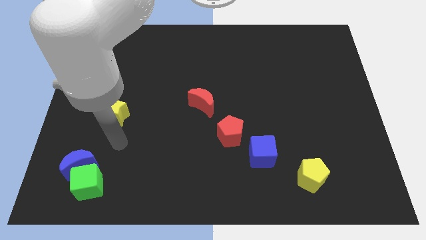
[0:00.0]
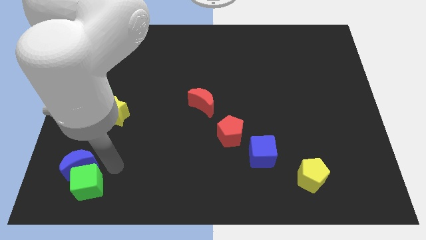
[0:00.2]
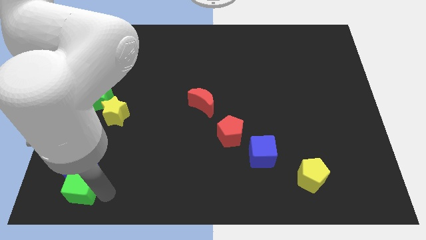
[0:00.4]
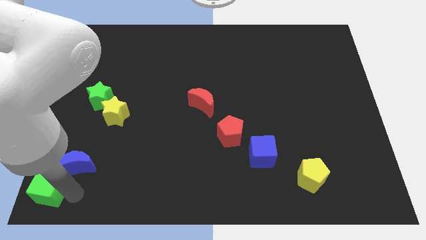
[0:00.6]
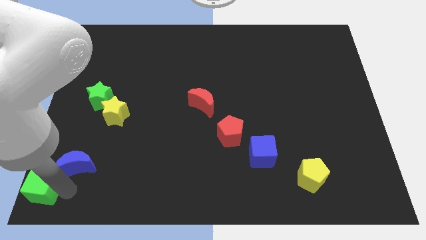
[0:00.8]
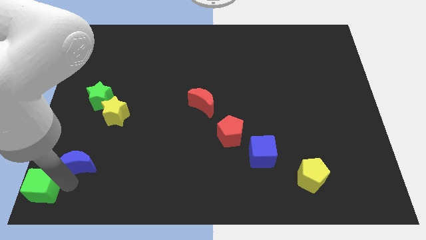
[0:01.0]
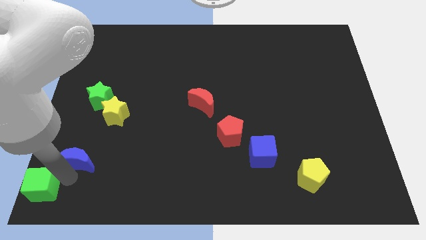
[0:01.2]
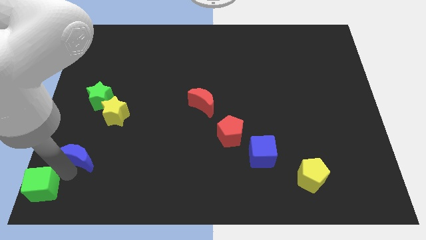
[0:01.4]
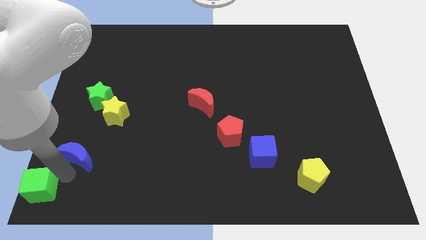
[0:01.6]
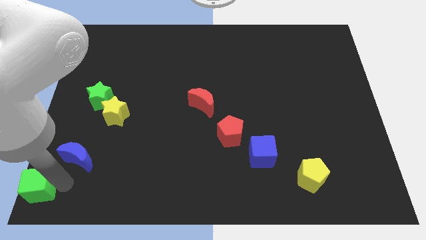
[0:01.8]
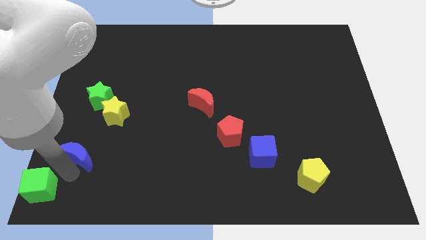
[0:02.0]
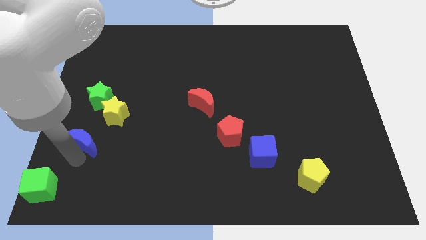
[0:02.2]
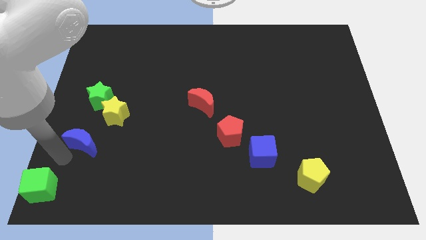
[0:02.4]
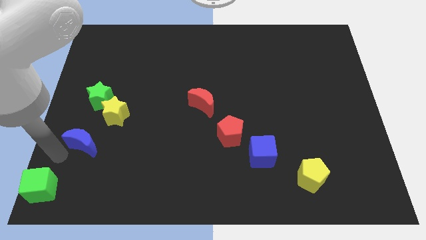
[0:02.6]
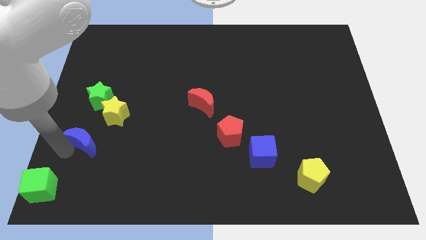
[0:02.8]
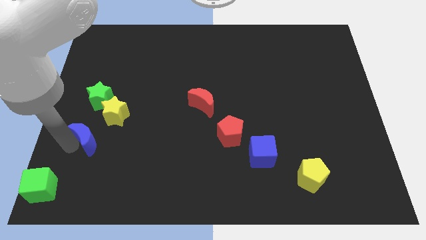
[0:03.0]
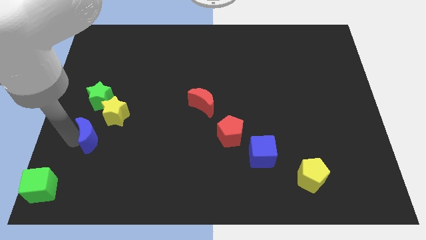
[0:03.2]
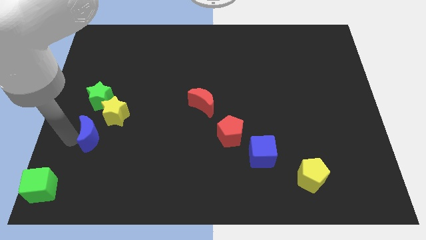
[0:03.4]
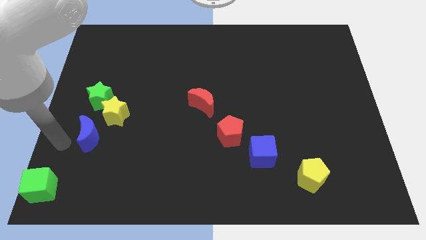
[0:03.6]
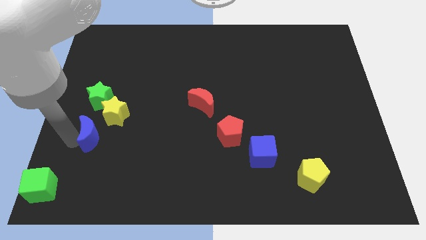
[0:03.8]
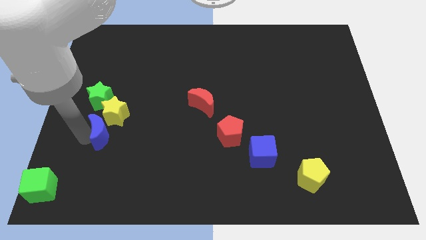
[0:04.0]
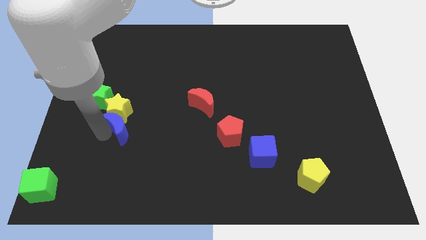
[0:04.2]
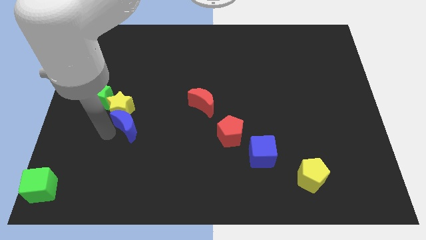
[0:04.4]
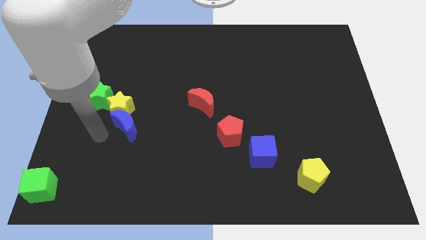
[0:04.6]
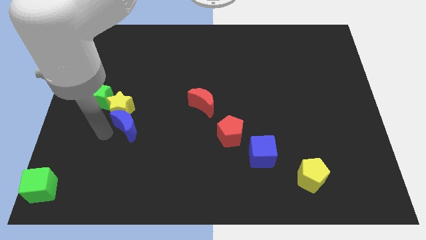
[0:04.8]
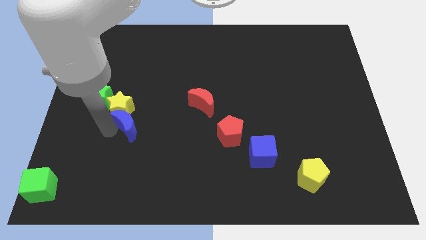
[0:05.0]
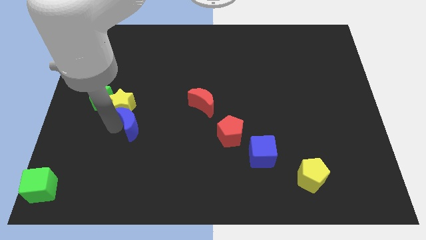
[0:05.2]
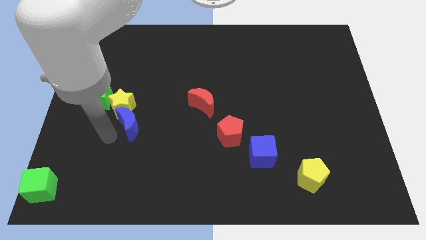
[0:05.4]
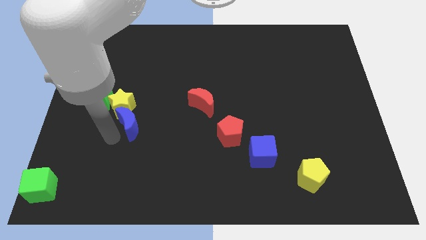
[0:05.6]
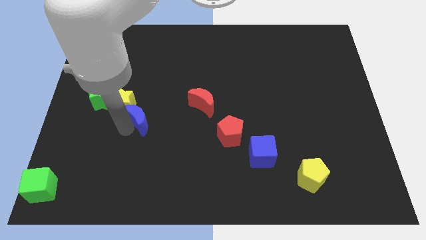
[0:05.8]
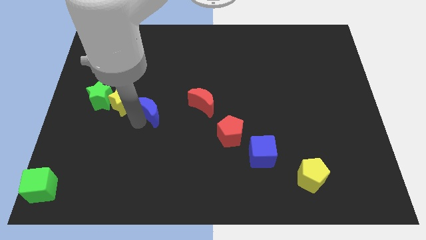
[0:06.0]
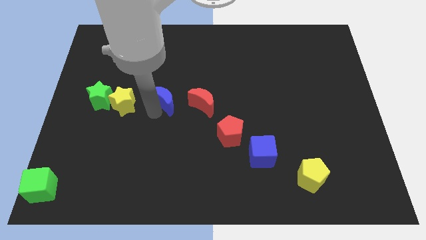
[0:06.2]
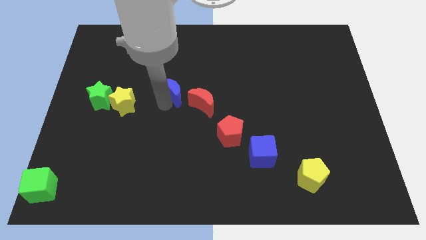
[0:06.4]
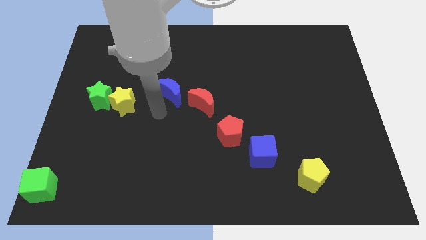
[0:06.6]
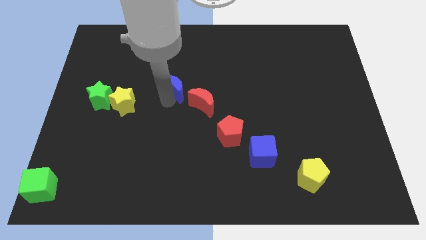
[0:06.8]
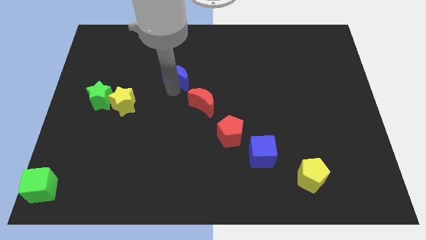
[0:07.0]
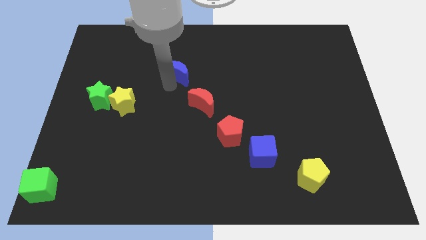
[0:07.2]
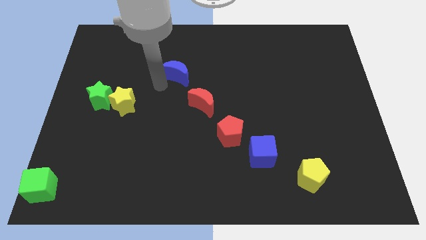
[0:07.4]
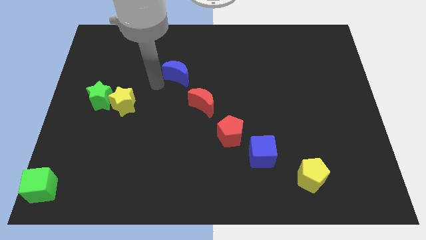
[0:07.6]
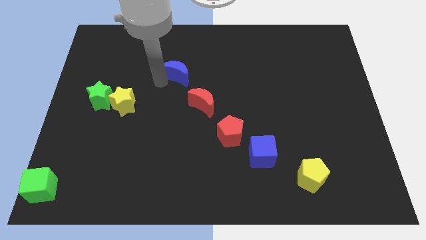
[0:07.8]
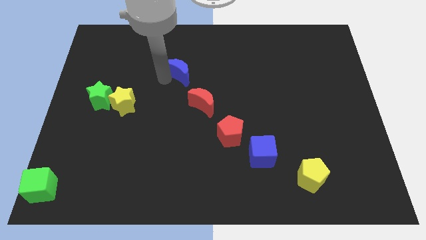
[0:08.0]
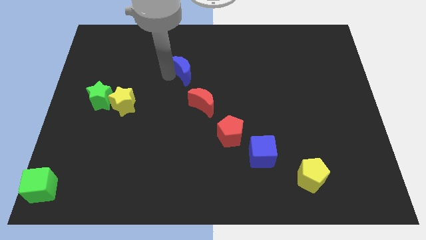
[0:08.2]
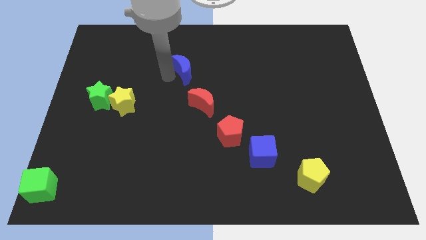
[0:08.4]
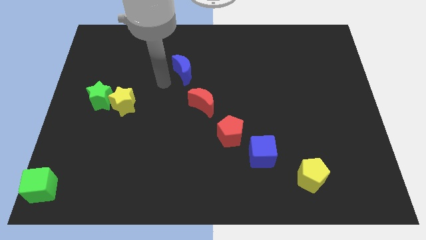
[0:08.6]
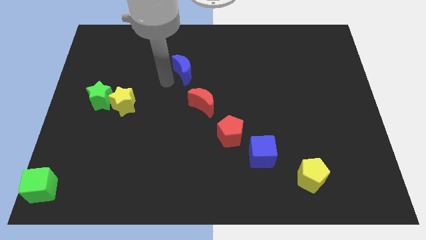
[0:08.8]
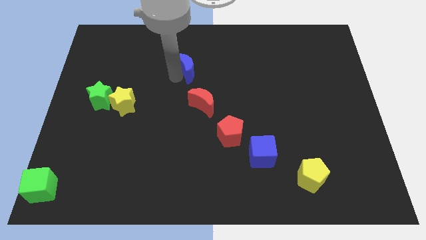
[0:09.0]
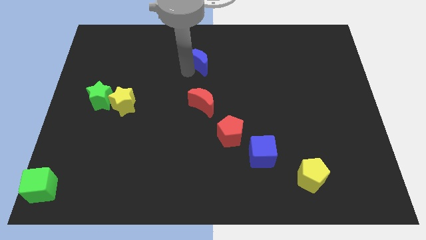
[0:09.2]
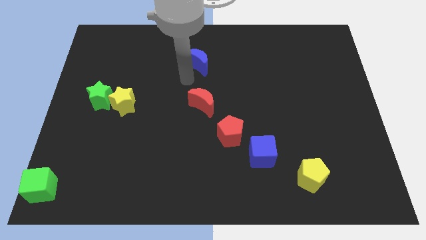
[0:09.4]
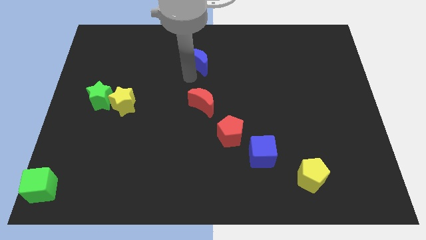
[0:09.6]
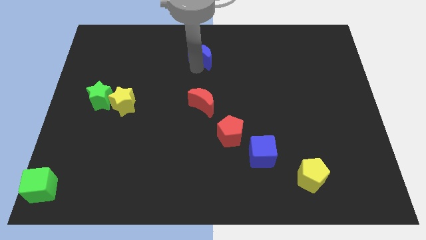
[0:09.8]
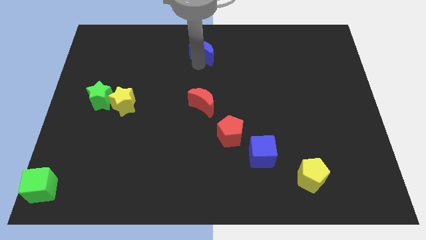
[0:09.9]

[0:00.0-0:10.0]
push the blue moon to the top side

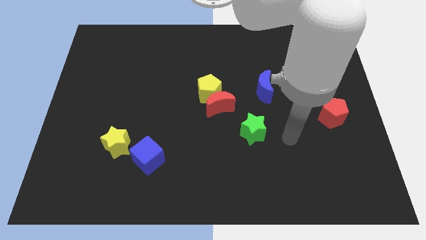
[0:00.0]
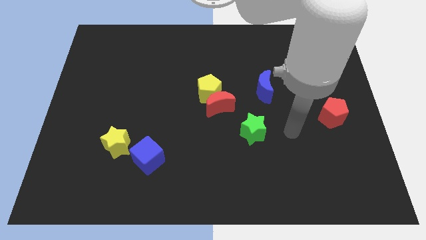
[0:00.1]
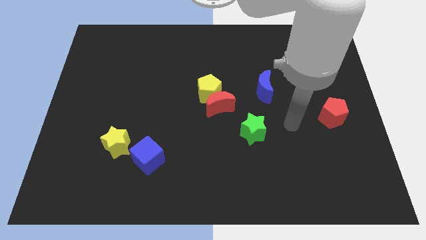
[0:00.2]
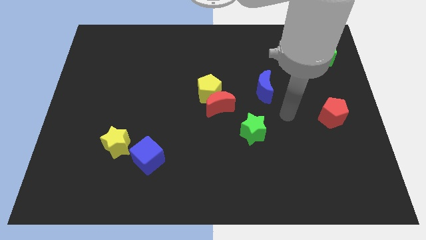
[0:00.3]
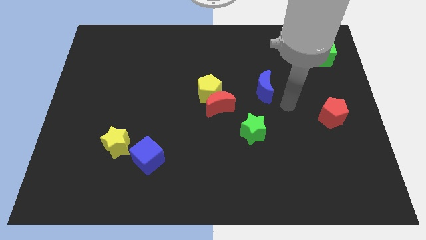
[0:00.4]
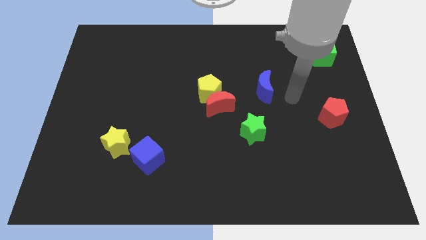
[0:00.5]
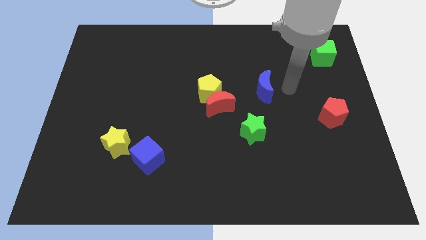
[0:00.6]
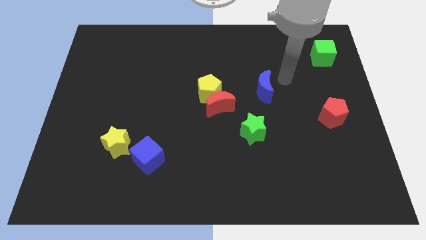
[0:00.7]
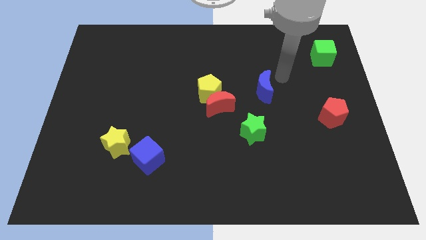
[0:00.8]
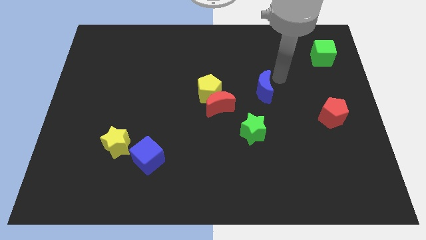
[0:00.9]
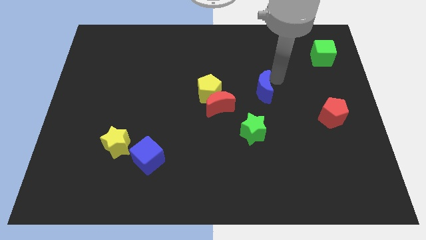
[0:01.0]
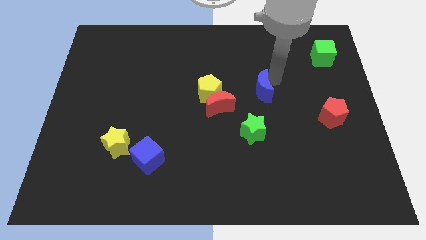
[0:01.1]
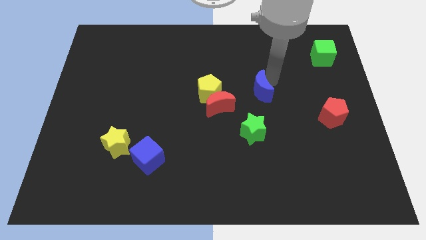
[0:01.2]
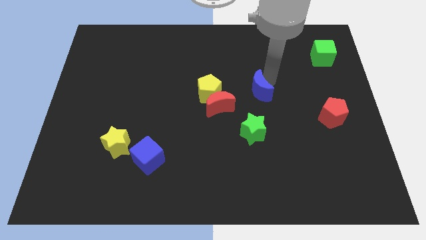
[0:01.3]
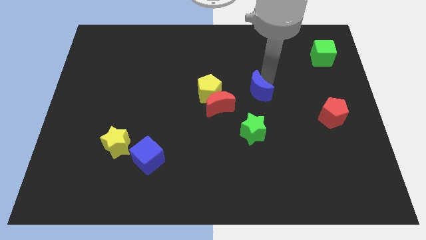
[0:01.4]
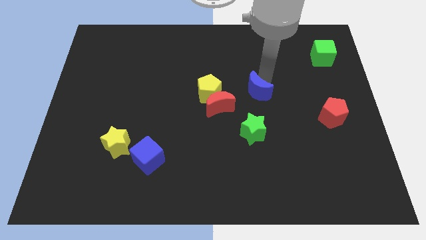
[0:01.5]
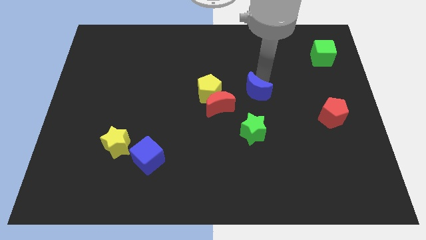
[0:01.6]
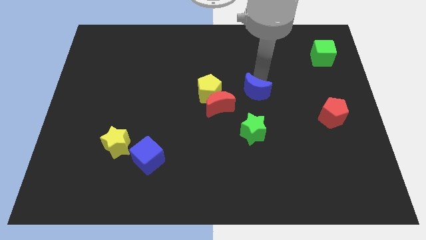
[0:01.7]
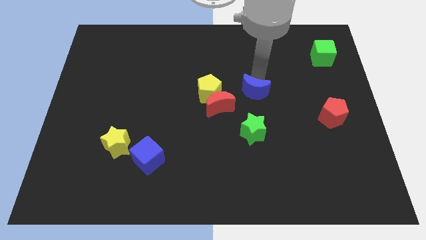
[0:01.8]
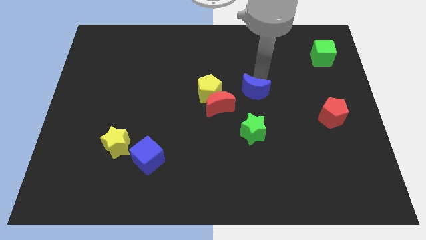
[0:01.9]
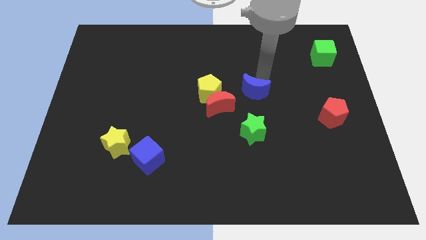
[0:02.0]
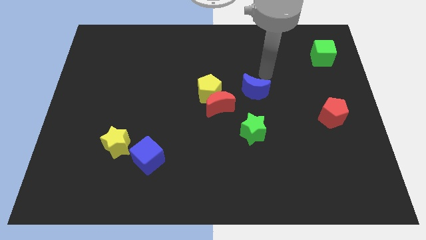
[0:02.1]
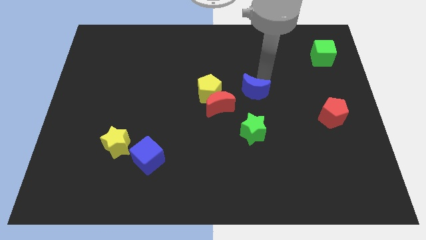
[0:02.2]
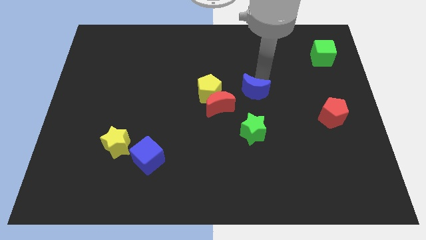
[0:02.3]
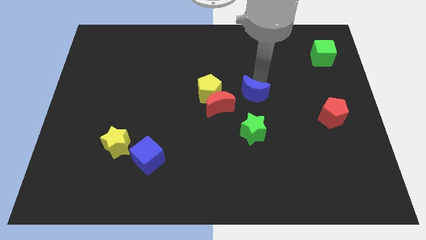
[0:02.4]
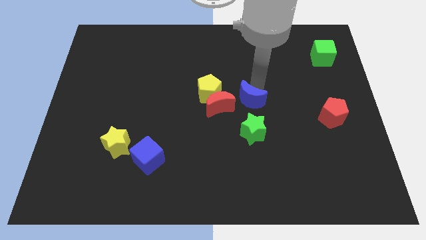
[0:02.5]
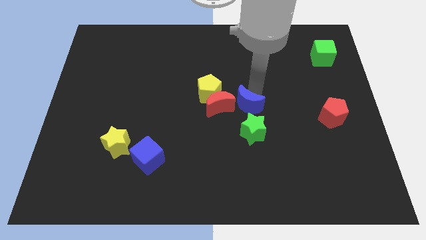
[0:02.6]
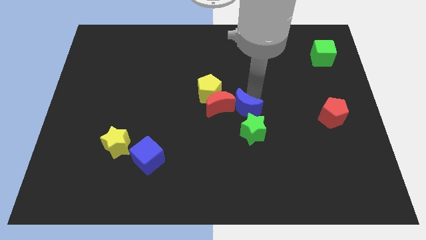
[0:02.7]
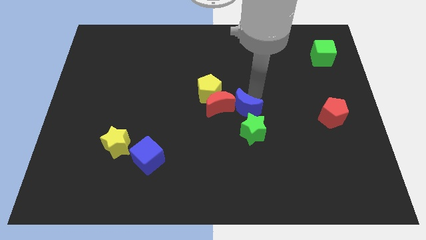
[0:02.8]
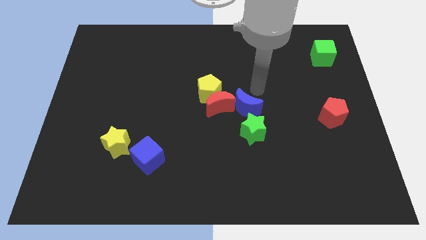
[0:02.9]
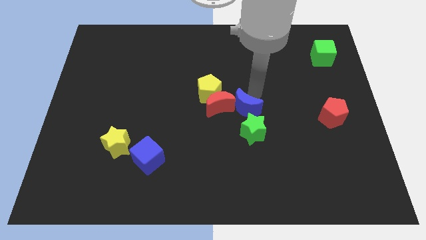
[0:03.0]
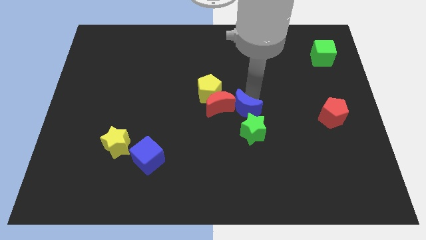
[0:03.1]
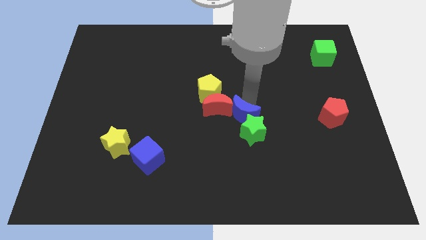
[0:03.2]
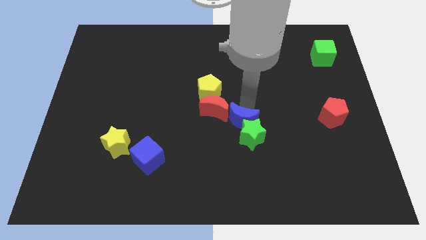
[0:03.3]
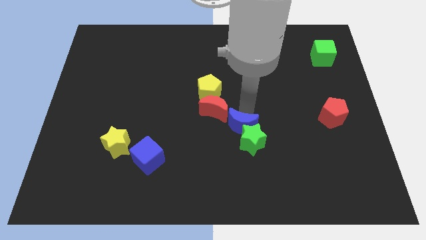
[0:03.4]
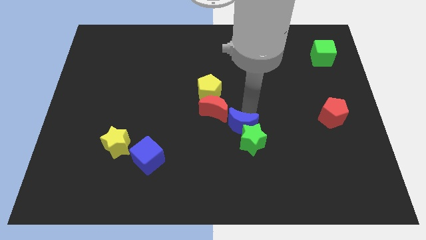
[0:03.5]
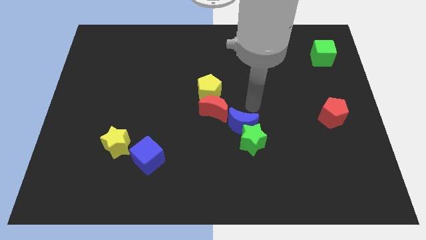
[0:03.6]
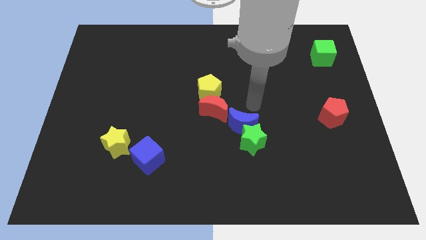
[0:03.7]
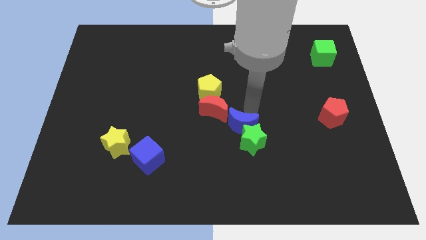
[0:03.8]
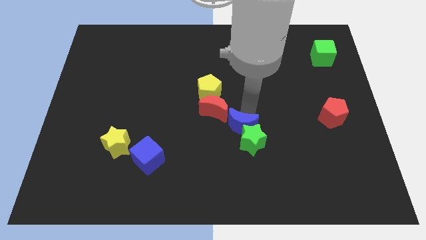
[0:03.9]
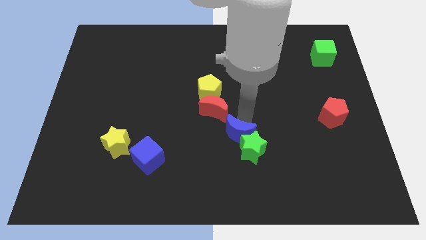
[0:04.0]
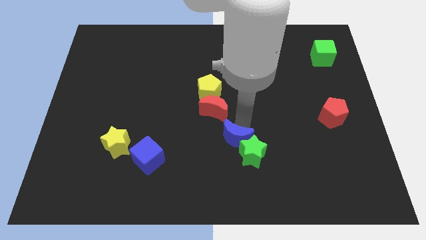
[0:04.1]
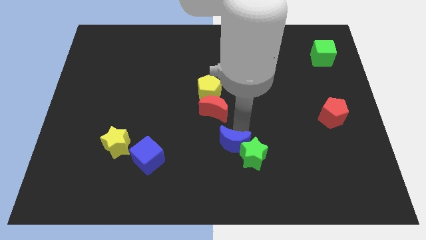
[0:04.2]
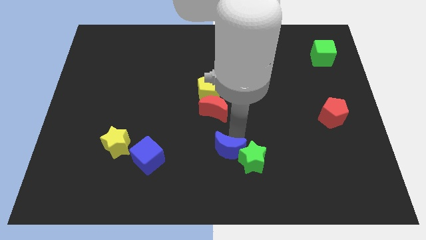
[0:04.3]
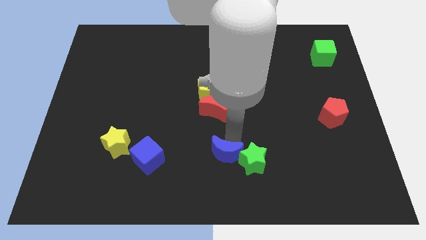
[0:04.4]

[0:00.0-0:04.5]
slide the blue moon to the bottom side
